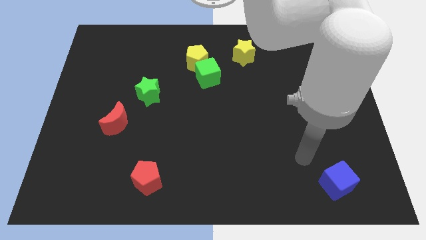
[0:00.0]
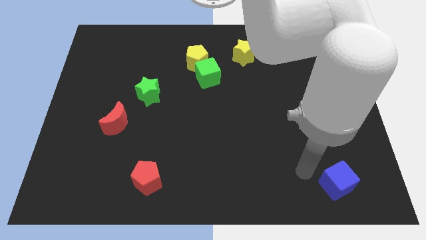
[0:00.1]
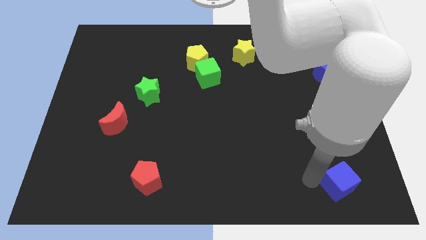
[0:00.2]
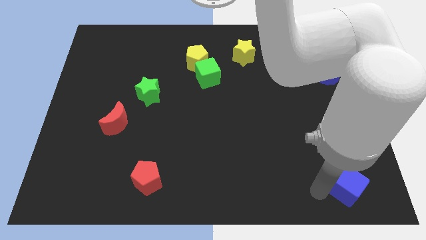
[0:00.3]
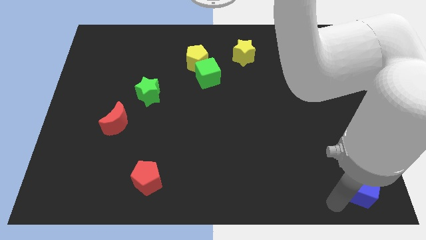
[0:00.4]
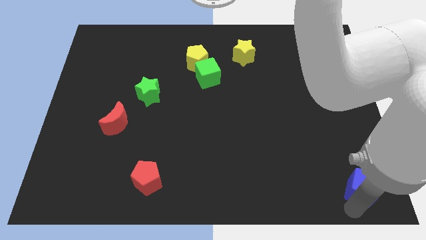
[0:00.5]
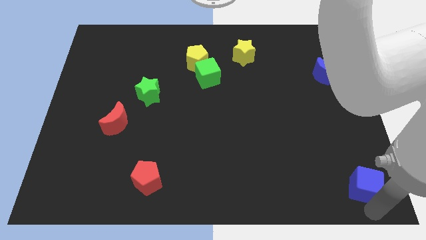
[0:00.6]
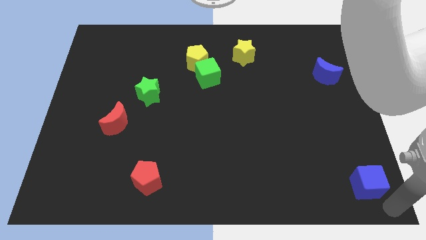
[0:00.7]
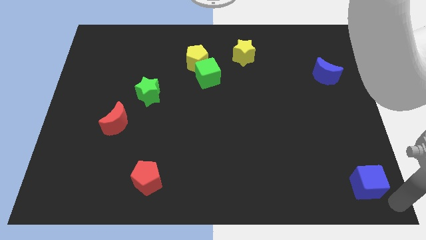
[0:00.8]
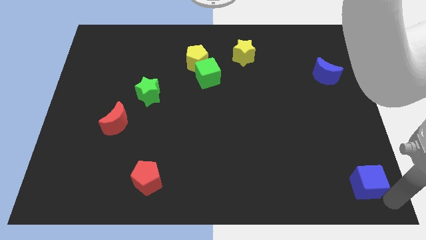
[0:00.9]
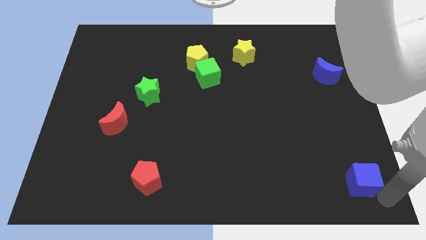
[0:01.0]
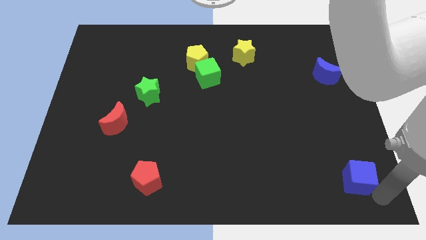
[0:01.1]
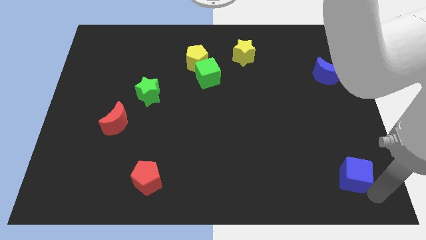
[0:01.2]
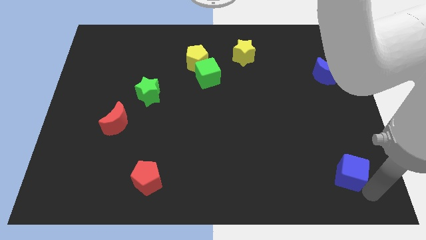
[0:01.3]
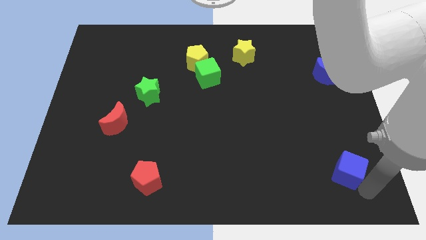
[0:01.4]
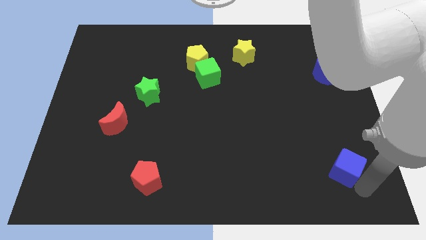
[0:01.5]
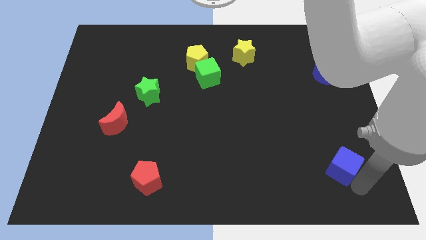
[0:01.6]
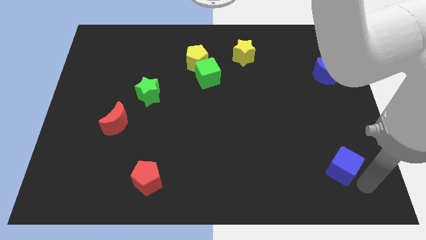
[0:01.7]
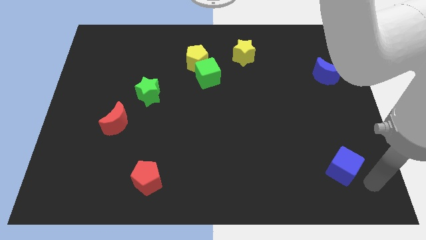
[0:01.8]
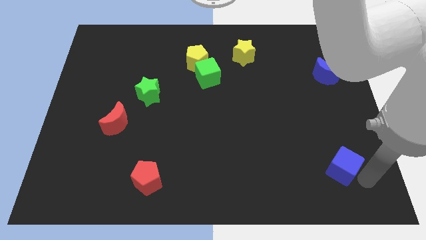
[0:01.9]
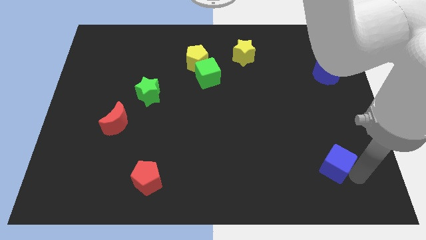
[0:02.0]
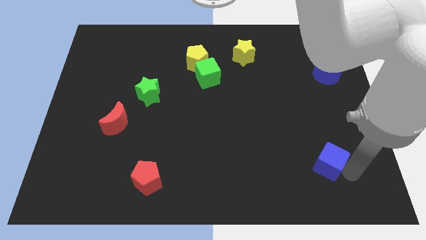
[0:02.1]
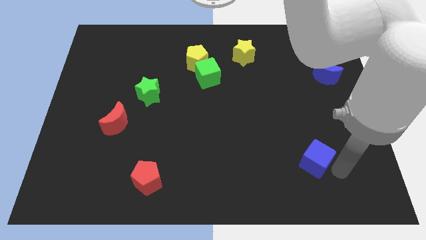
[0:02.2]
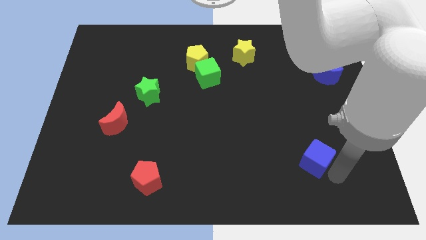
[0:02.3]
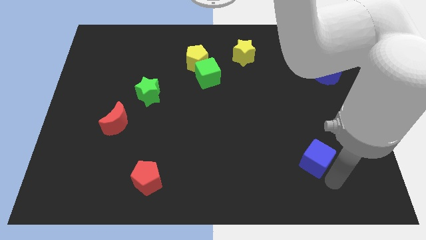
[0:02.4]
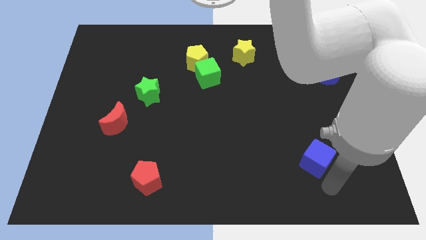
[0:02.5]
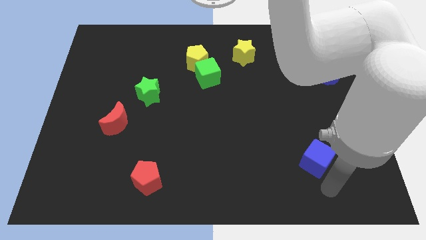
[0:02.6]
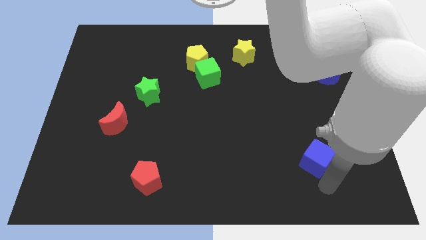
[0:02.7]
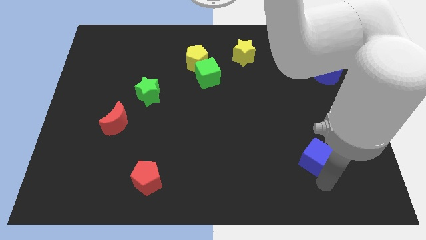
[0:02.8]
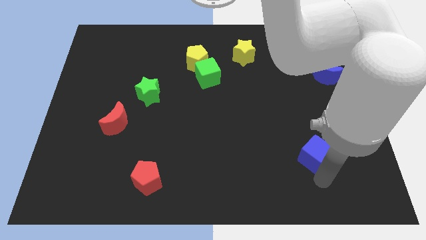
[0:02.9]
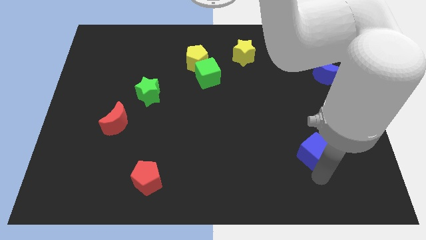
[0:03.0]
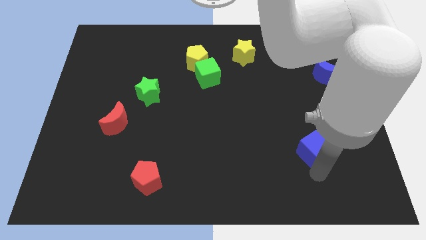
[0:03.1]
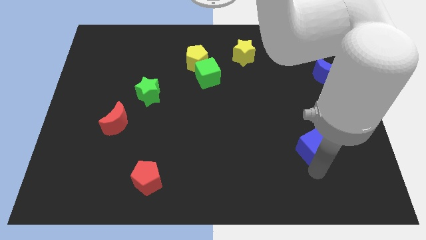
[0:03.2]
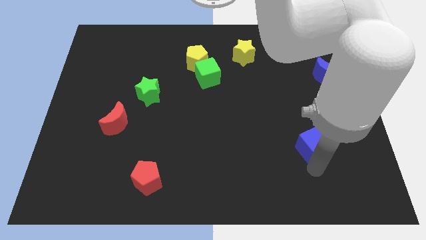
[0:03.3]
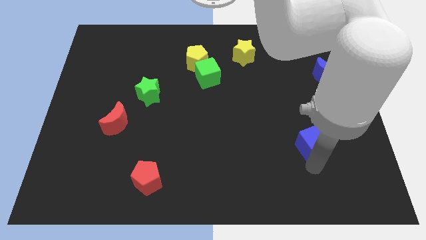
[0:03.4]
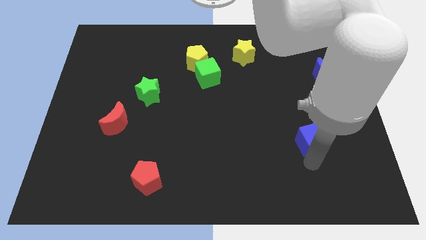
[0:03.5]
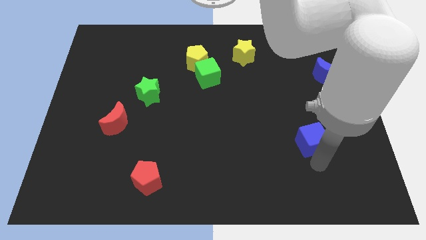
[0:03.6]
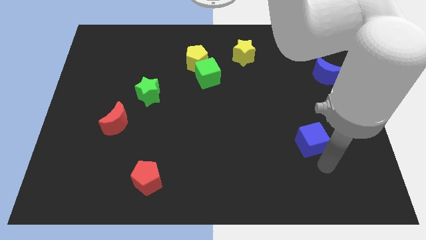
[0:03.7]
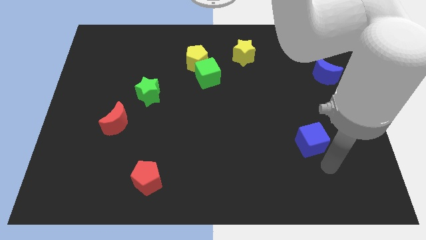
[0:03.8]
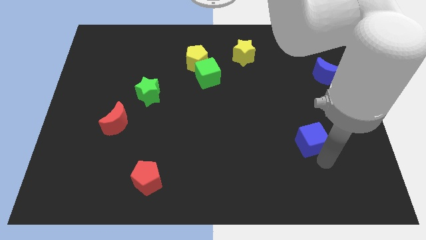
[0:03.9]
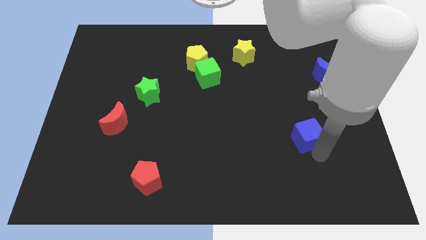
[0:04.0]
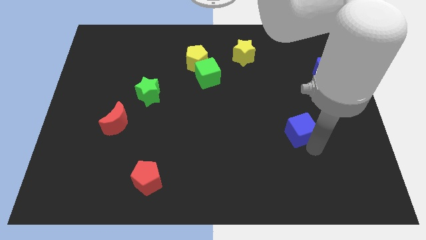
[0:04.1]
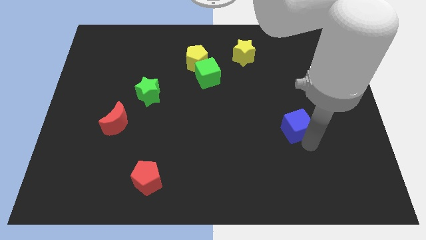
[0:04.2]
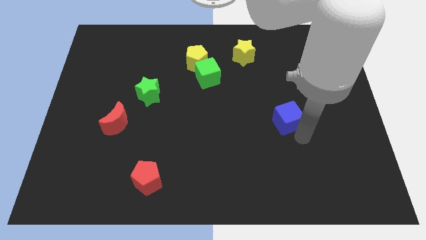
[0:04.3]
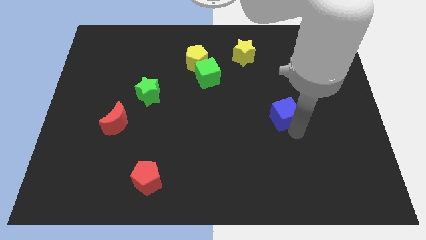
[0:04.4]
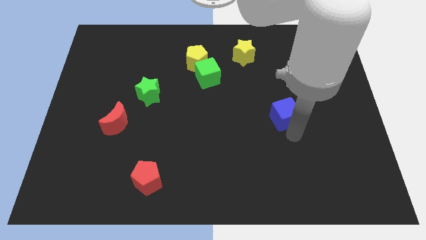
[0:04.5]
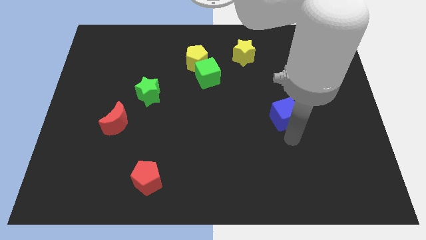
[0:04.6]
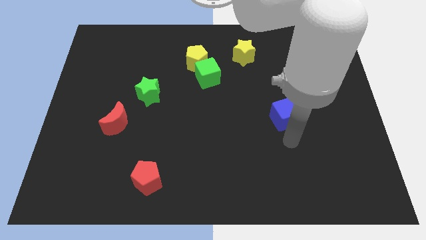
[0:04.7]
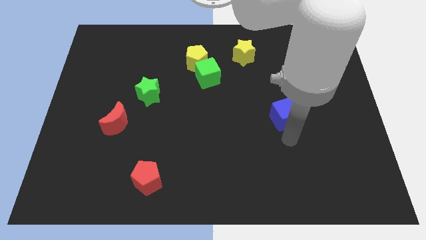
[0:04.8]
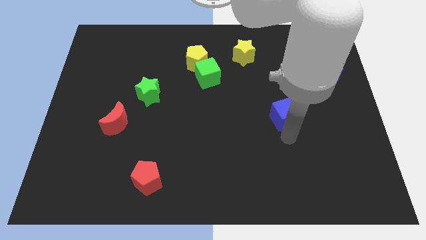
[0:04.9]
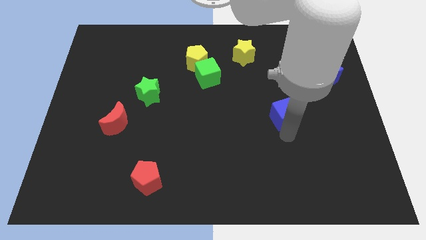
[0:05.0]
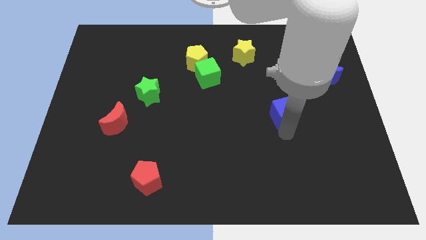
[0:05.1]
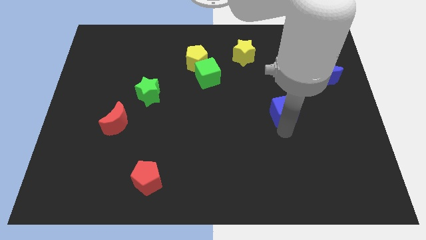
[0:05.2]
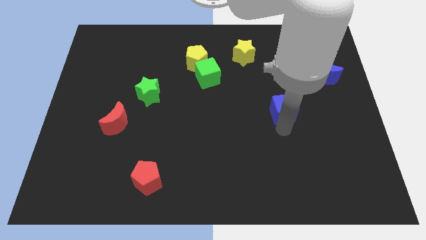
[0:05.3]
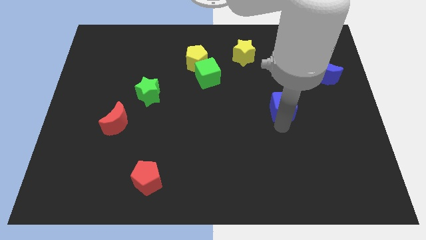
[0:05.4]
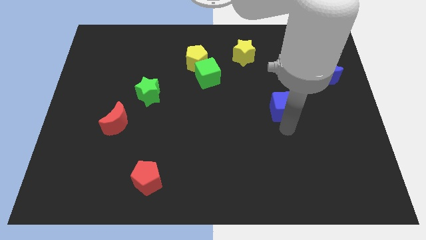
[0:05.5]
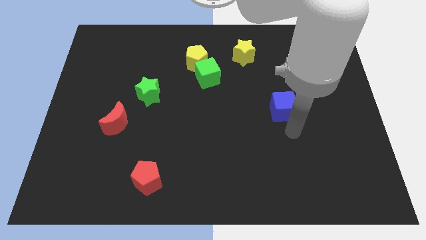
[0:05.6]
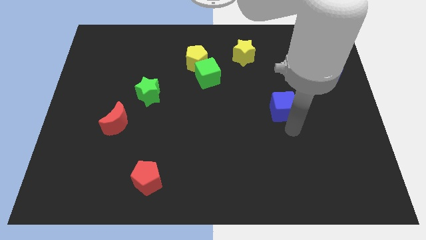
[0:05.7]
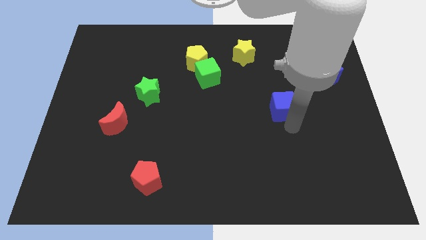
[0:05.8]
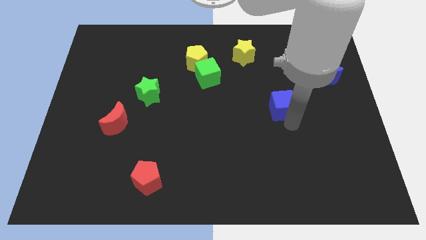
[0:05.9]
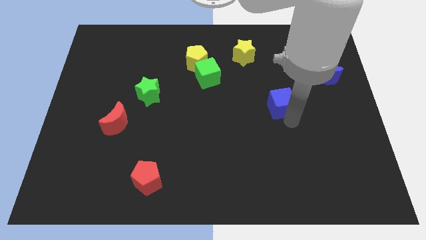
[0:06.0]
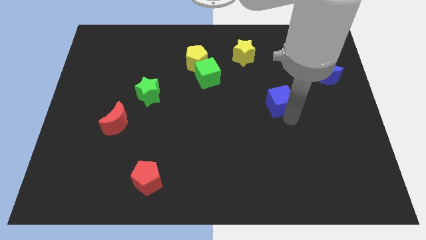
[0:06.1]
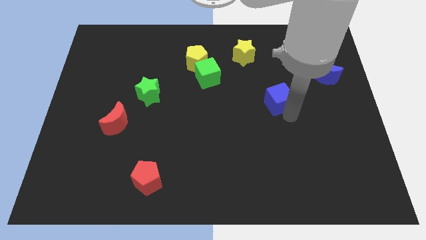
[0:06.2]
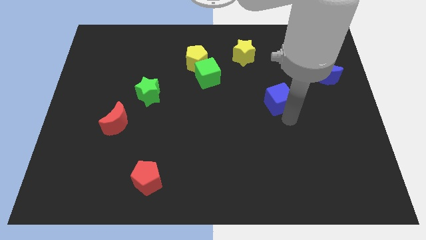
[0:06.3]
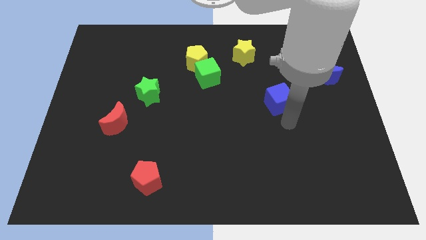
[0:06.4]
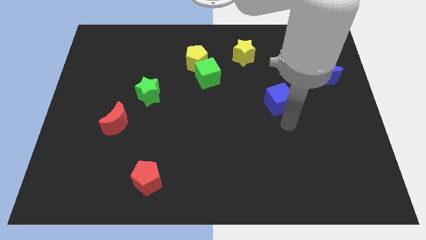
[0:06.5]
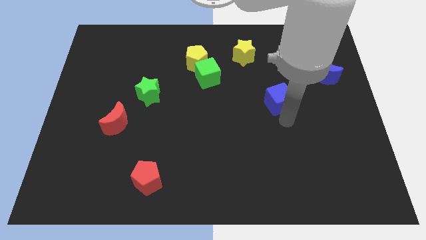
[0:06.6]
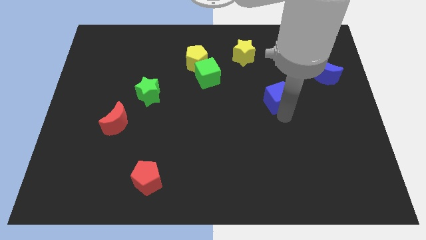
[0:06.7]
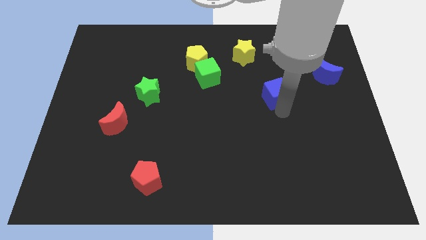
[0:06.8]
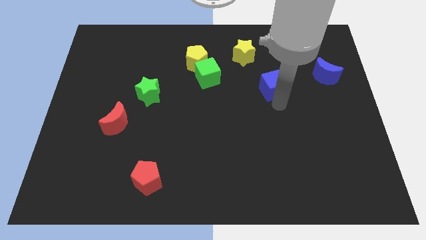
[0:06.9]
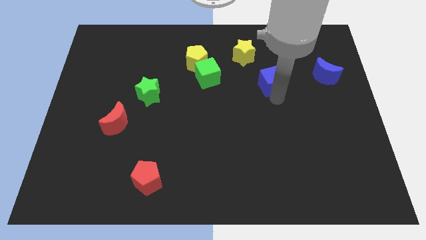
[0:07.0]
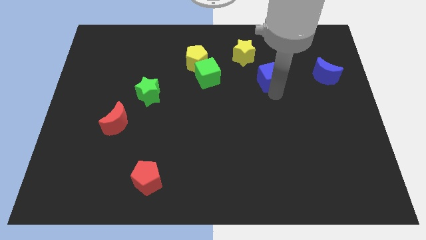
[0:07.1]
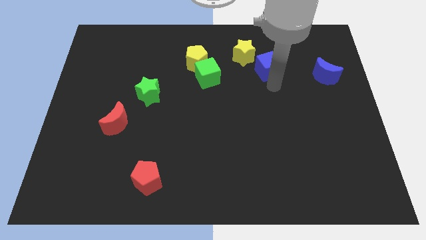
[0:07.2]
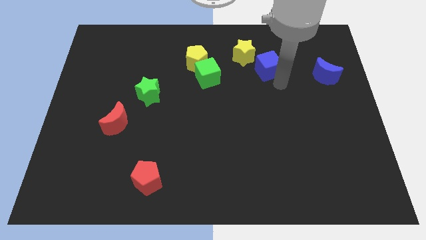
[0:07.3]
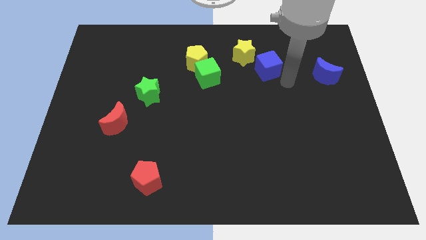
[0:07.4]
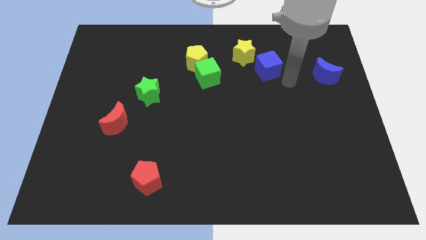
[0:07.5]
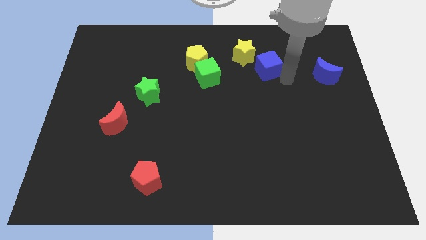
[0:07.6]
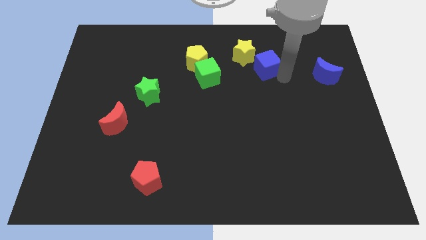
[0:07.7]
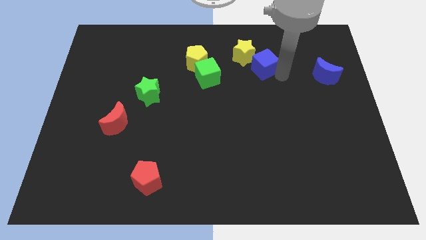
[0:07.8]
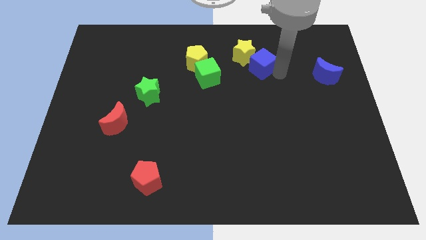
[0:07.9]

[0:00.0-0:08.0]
push the blue cube next to the yellow star

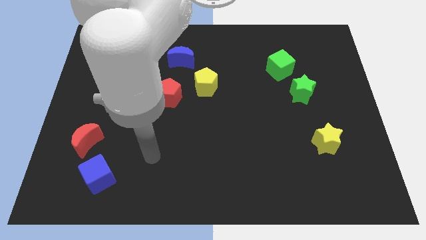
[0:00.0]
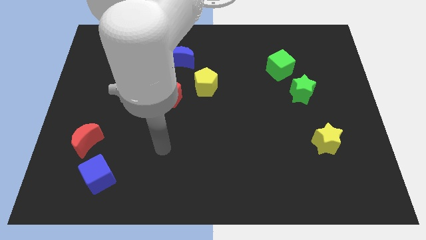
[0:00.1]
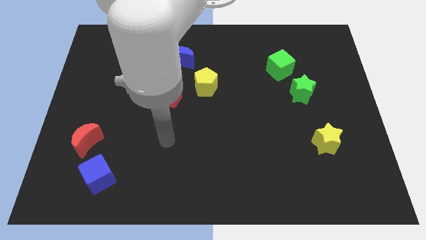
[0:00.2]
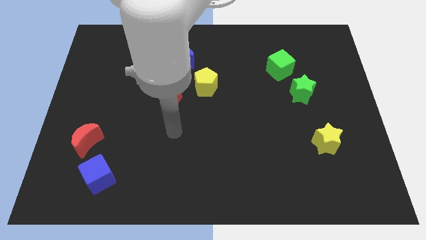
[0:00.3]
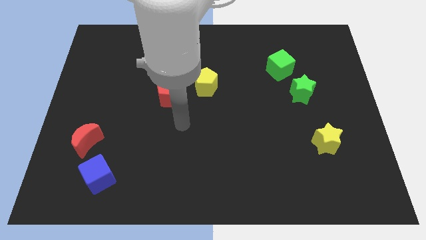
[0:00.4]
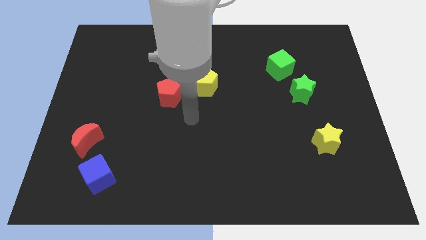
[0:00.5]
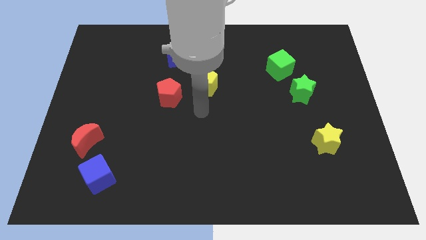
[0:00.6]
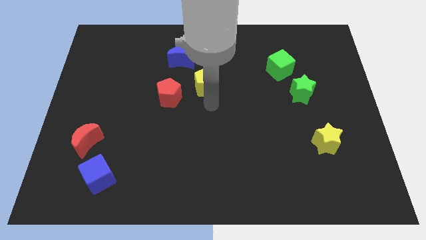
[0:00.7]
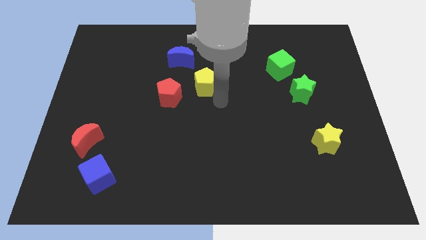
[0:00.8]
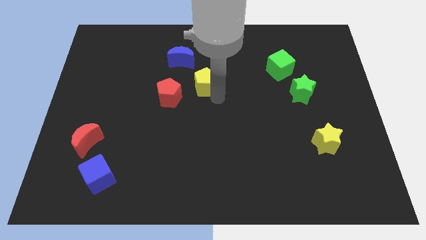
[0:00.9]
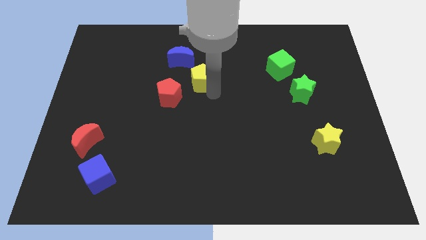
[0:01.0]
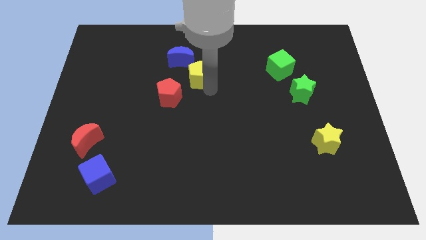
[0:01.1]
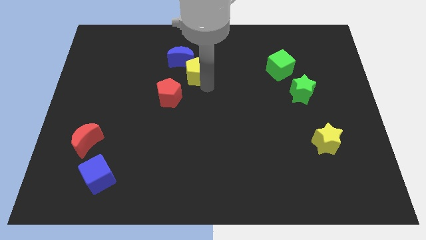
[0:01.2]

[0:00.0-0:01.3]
move the yellow pentagon next to the blue moon
